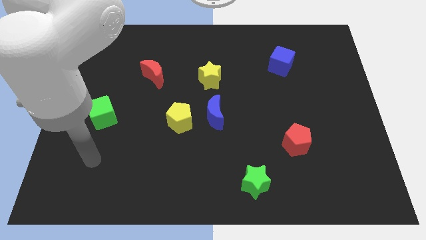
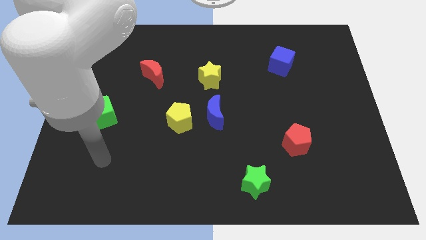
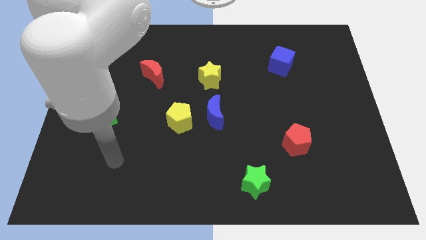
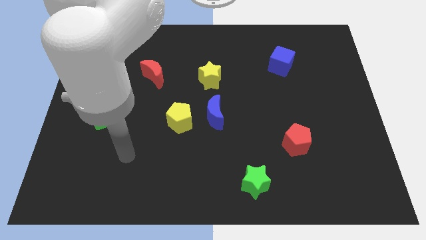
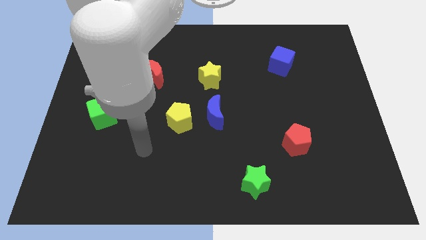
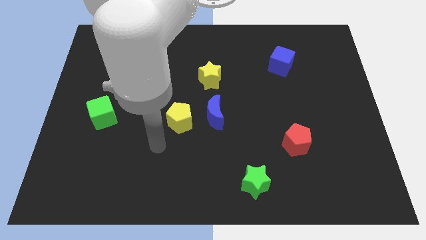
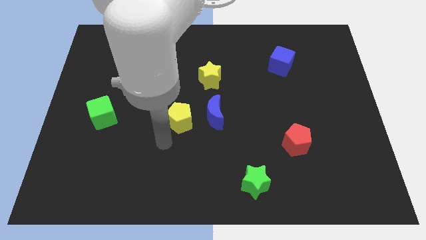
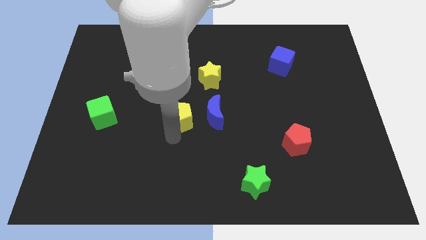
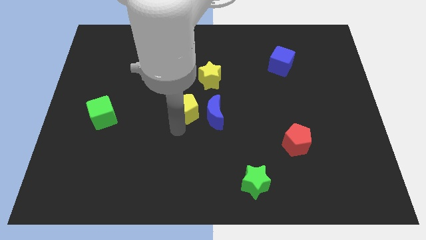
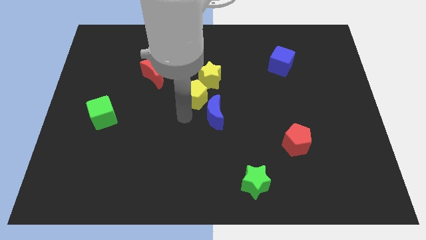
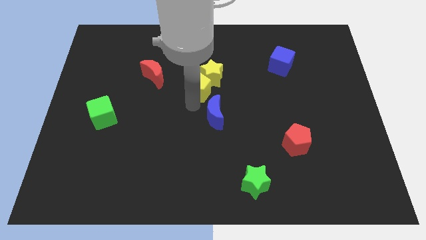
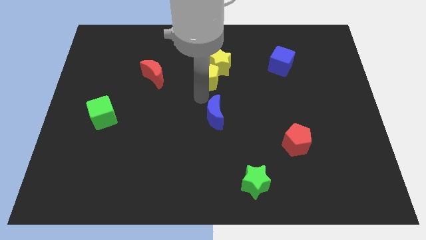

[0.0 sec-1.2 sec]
pull the blue moon apart from the yellow pentagon

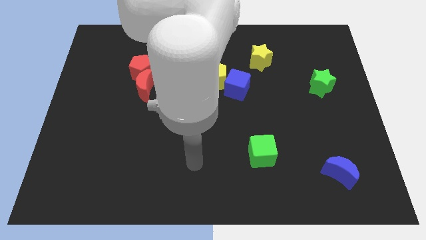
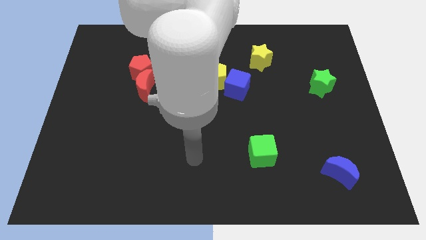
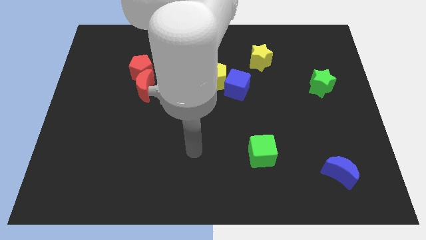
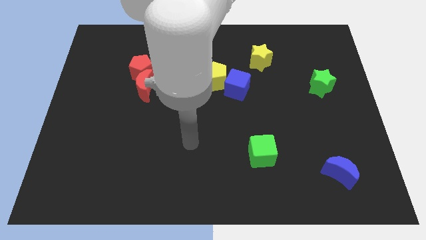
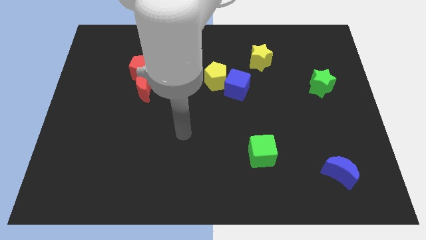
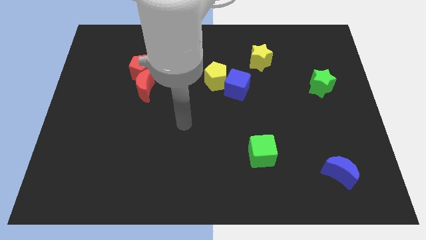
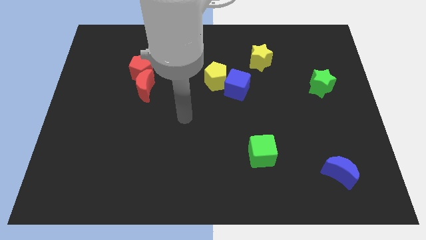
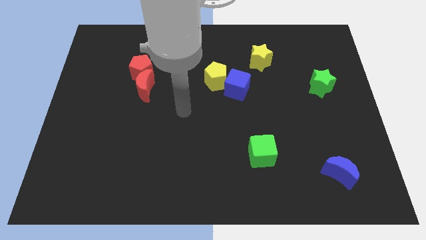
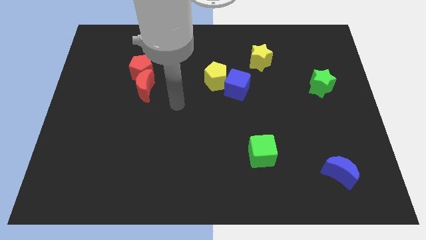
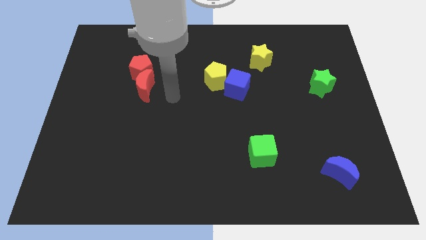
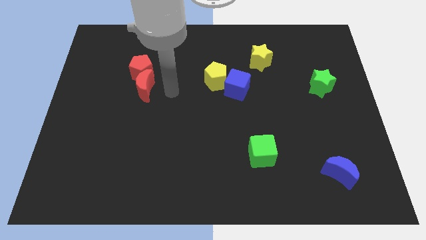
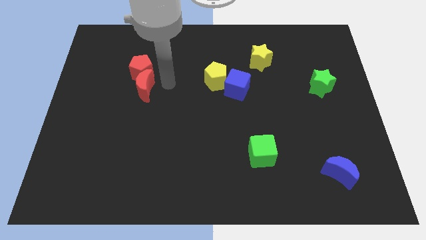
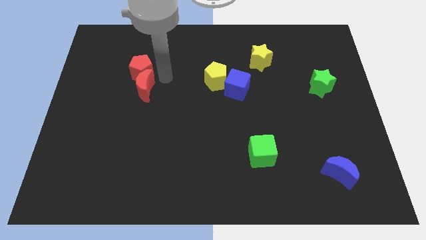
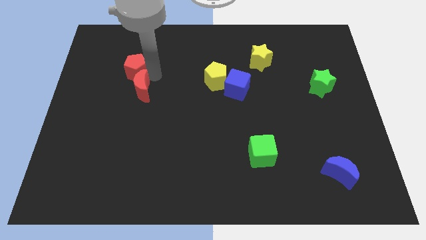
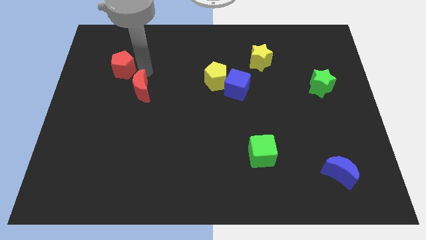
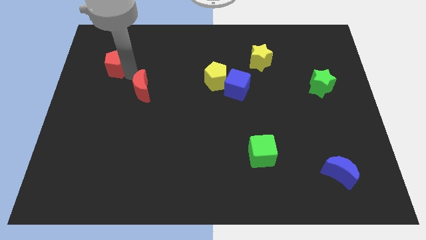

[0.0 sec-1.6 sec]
separate the red moon from the red pentagon

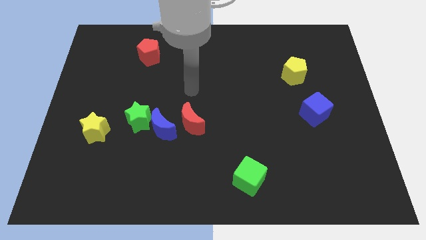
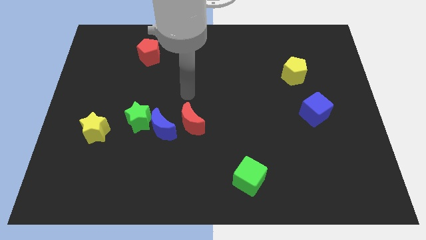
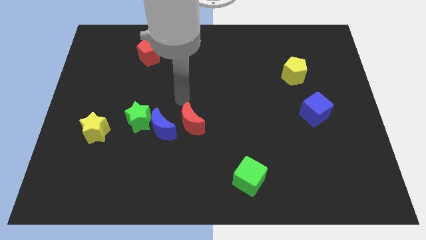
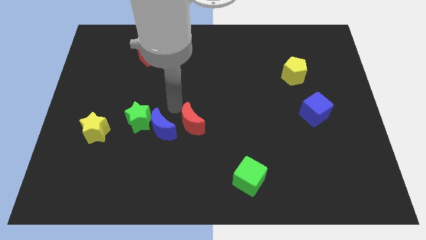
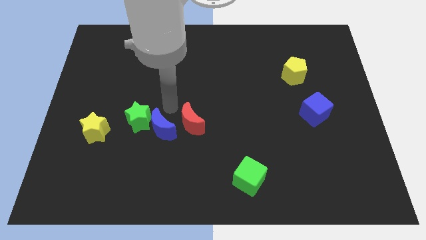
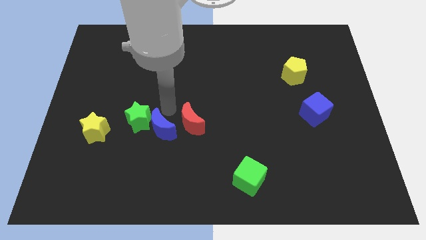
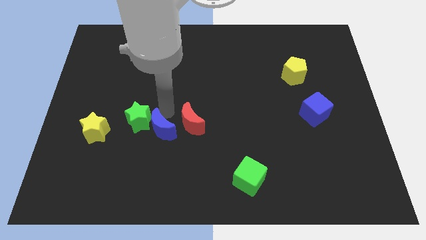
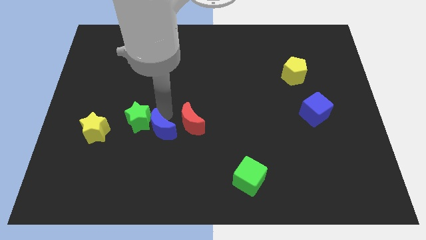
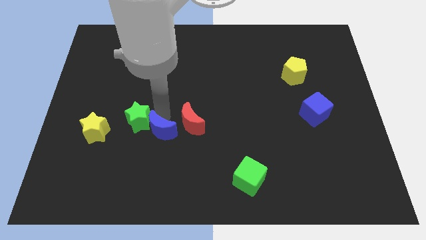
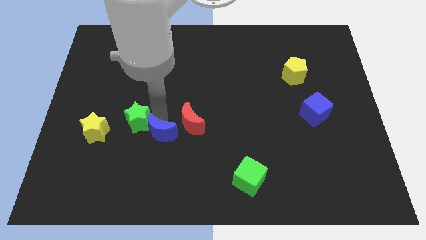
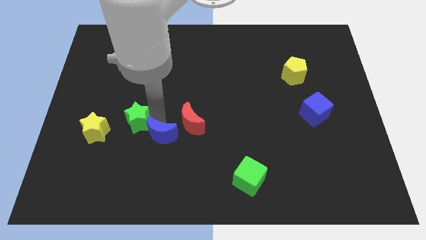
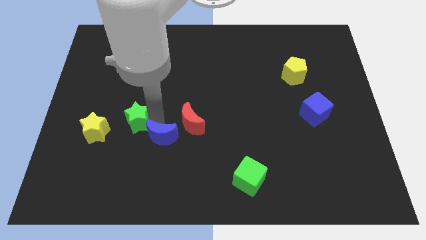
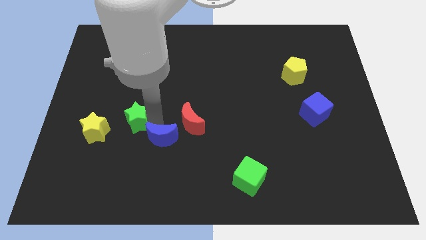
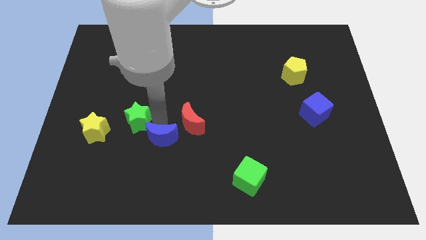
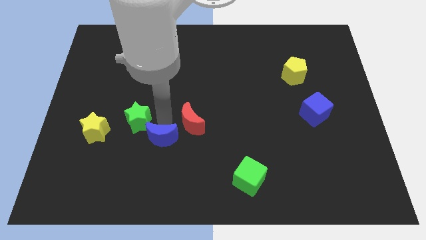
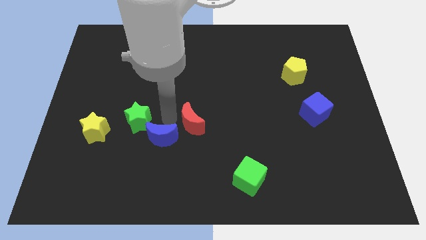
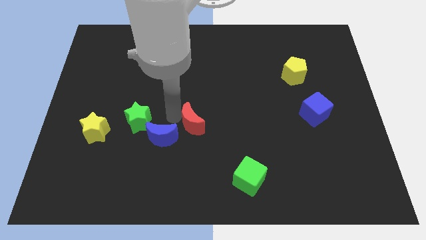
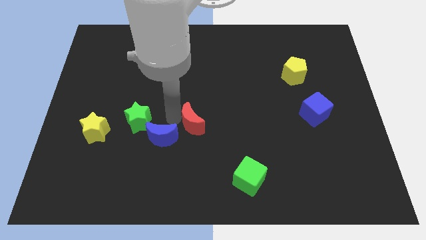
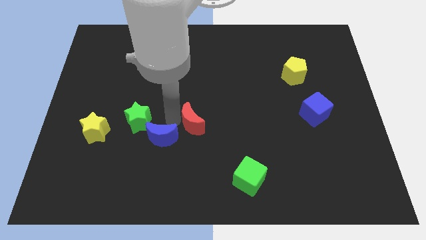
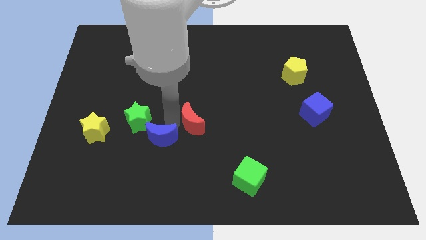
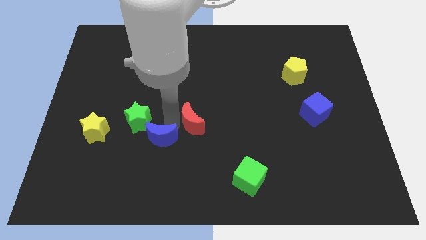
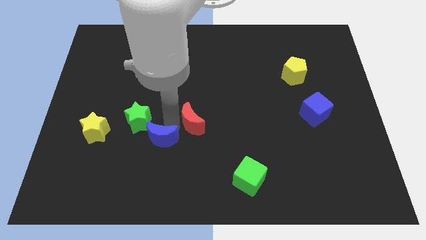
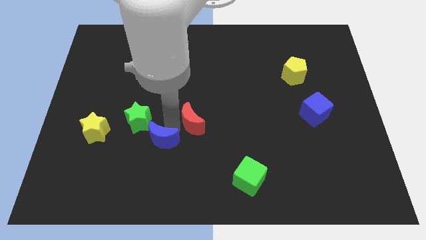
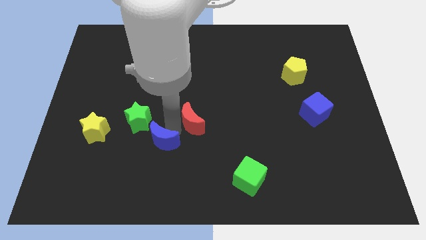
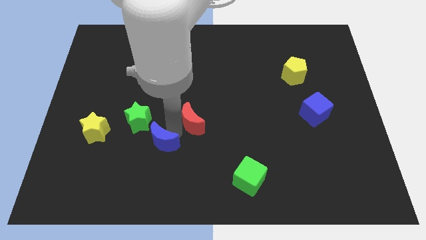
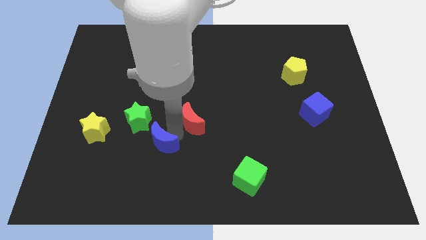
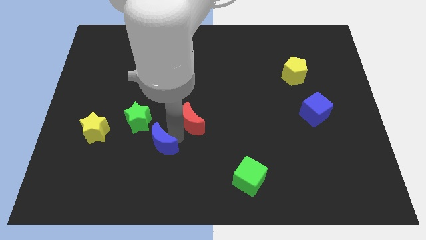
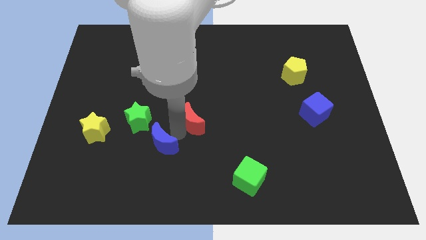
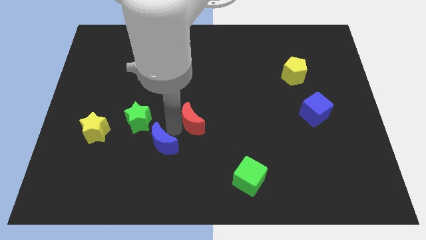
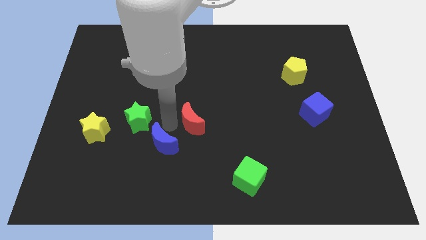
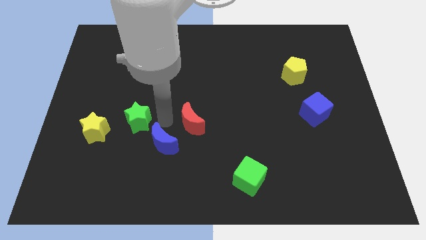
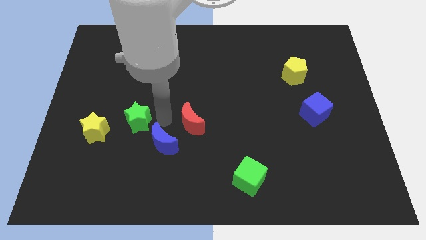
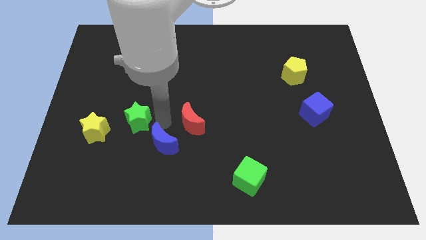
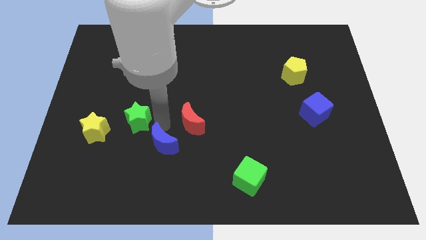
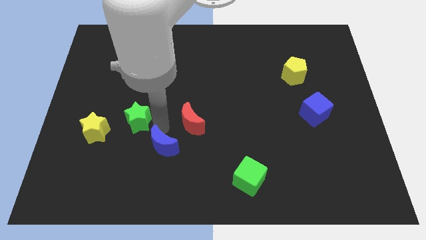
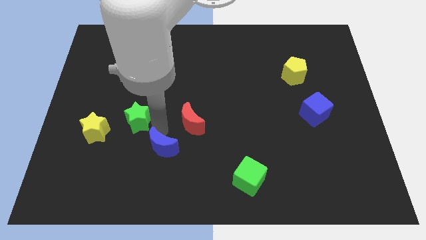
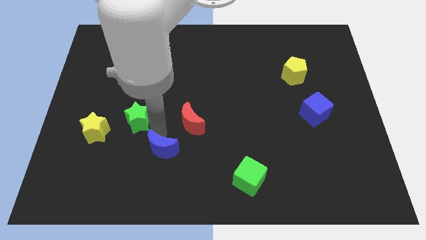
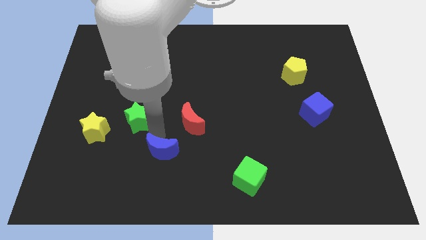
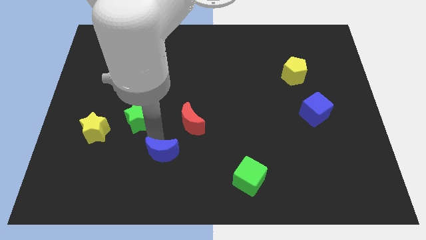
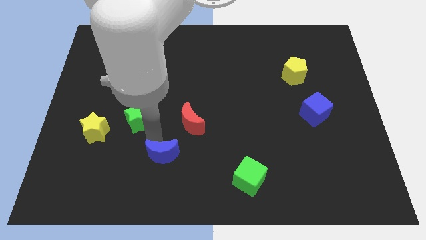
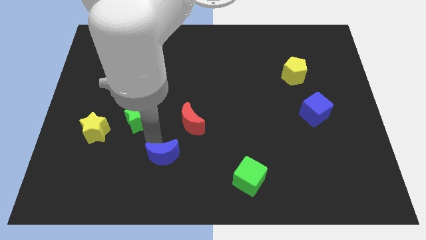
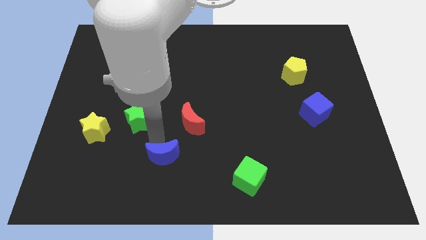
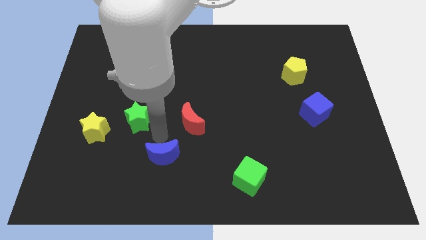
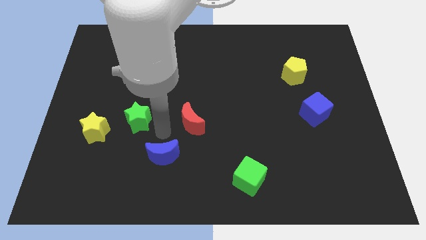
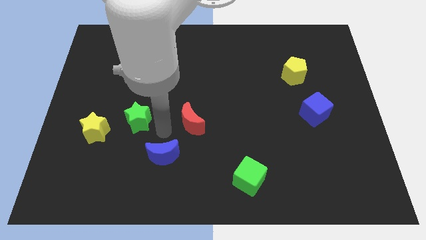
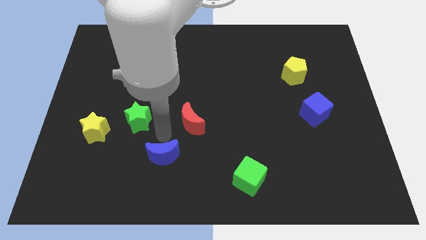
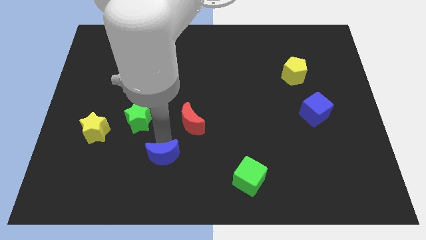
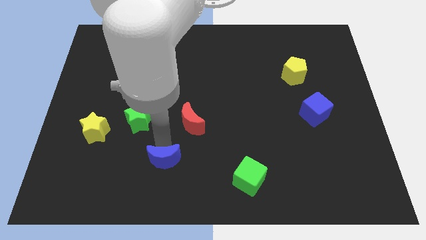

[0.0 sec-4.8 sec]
pull the blue moon apart from the green star and red moon

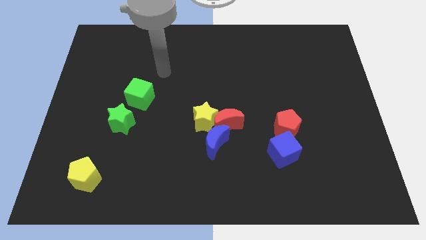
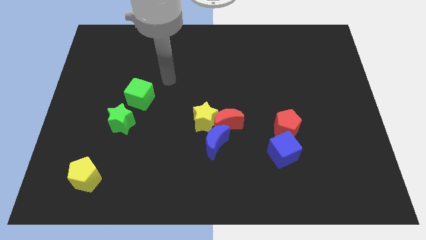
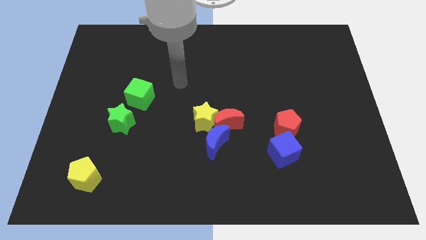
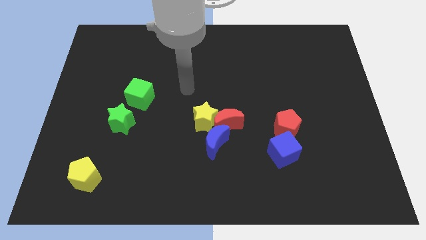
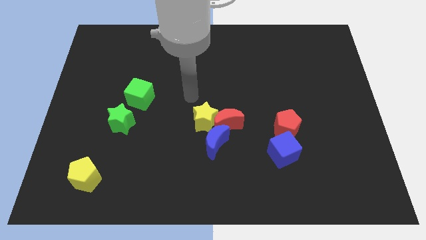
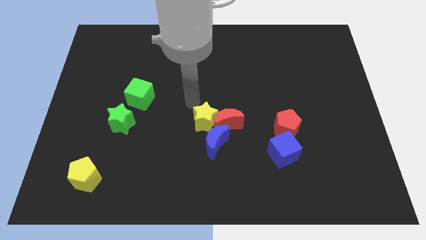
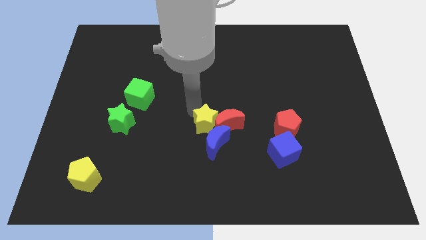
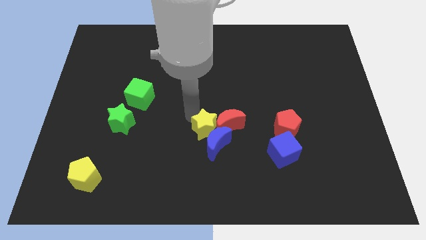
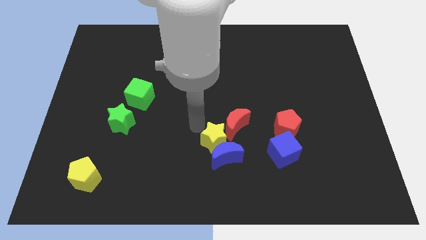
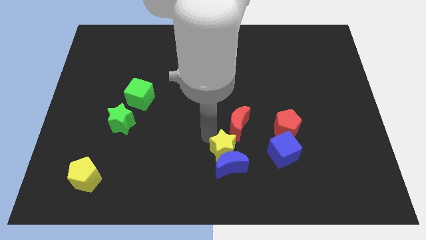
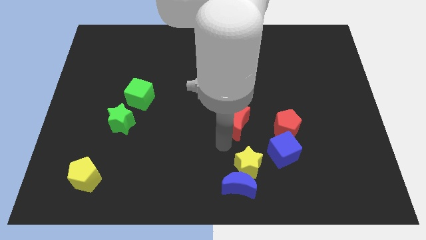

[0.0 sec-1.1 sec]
move the red moon away from the yellow star and blue moon

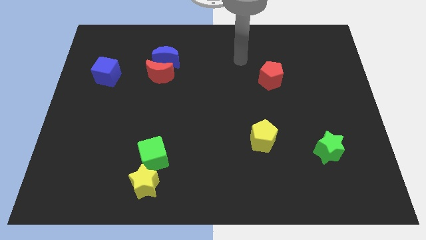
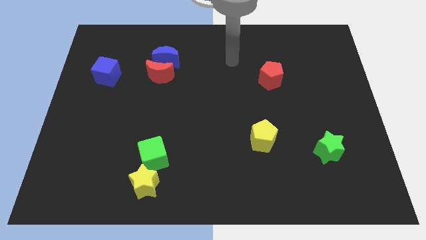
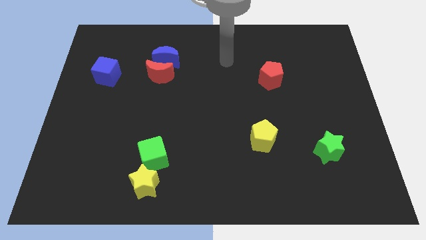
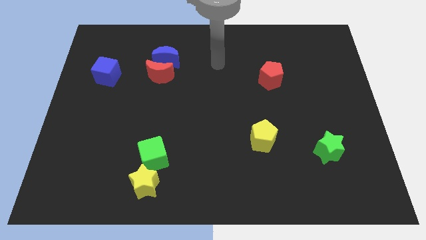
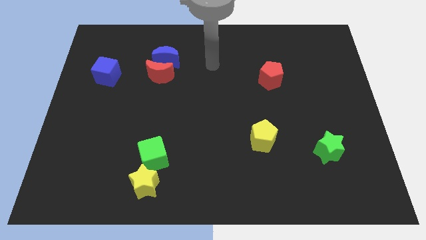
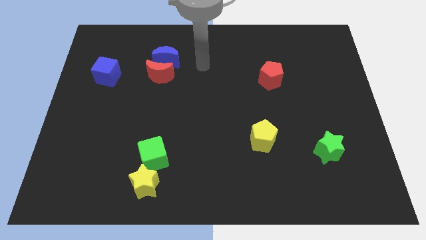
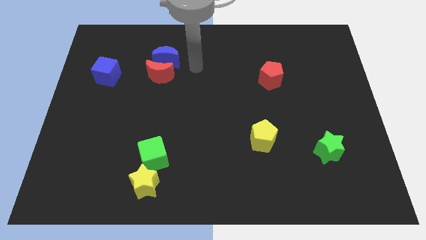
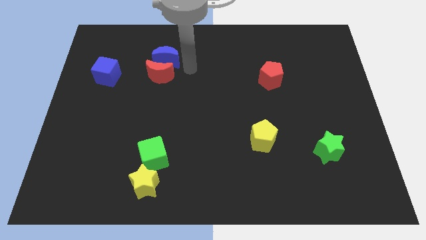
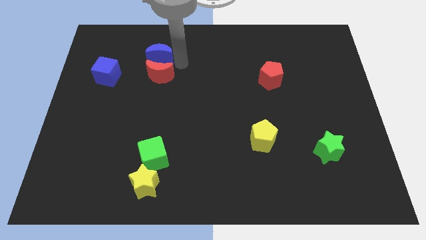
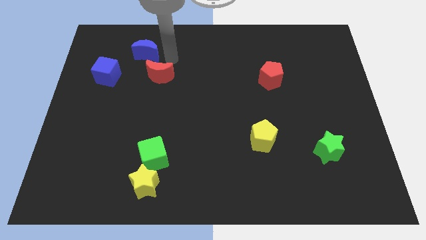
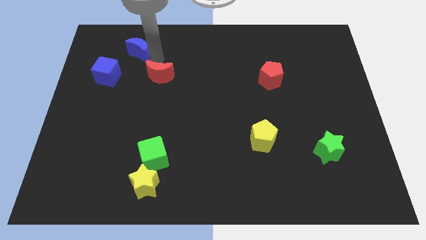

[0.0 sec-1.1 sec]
separate the red moon from the blue moon
